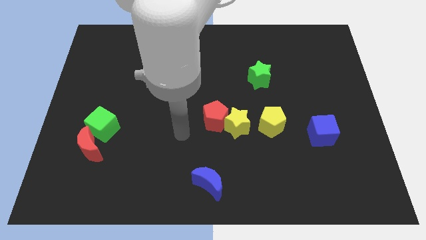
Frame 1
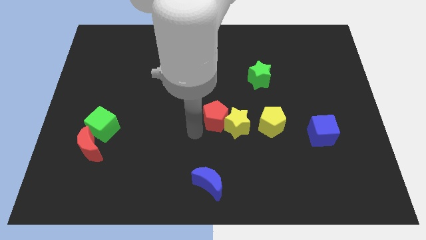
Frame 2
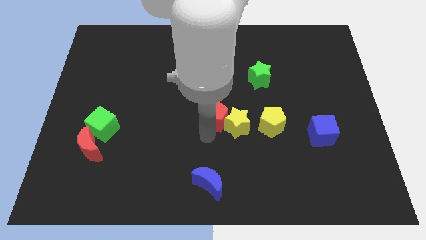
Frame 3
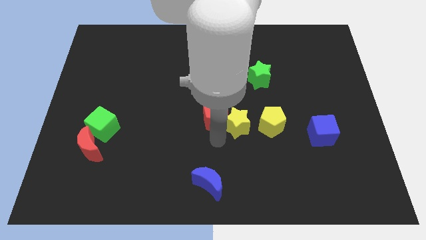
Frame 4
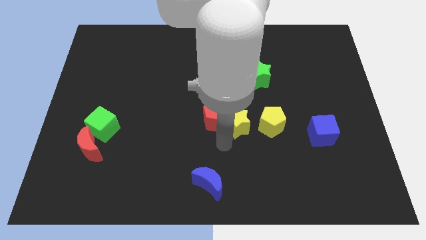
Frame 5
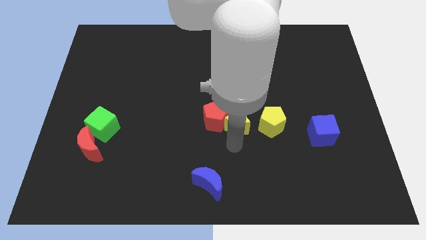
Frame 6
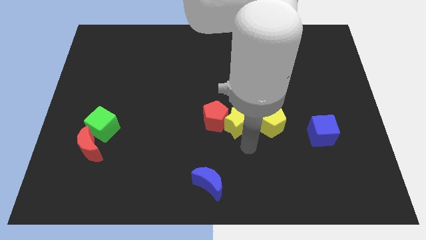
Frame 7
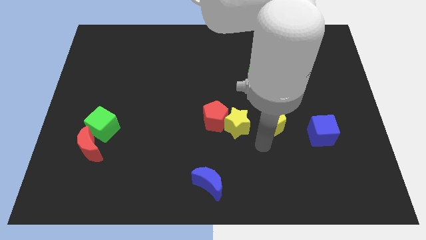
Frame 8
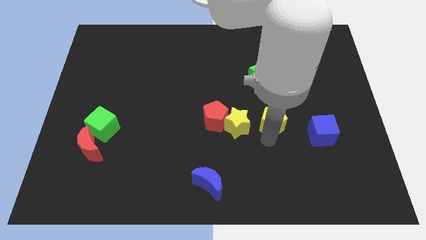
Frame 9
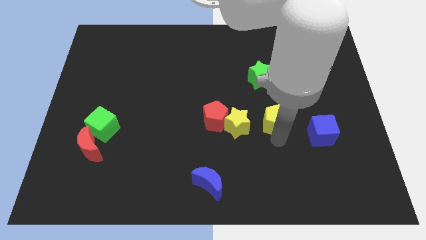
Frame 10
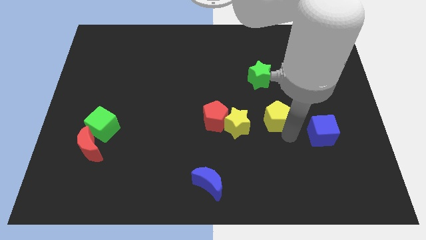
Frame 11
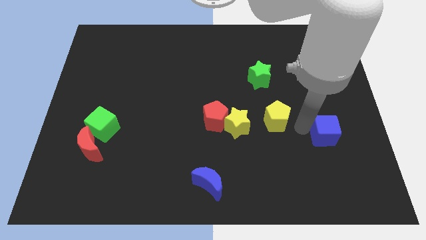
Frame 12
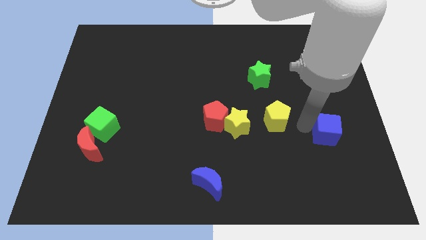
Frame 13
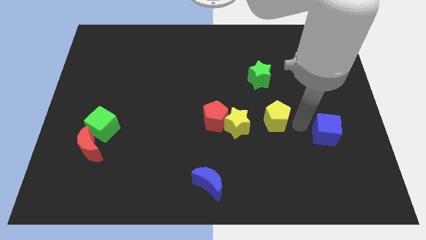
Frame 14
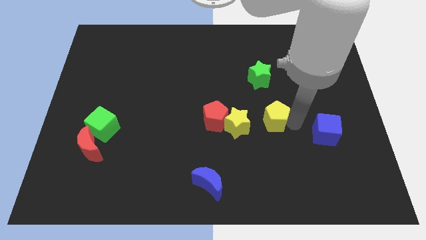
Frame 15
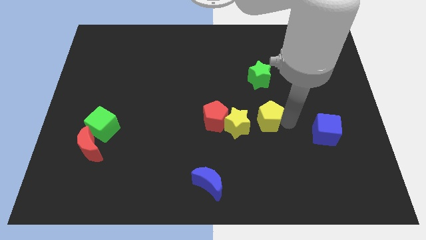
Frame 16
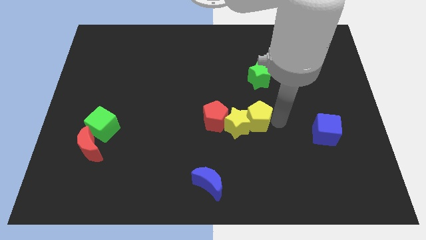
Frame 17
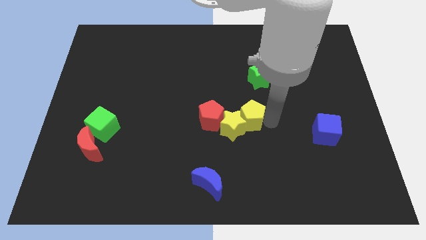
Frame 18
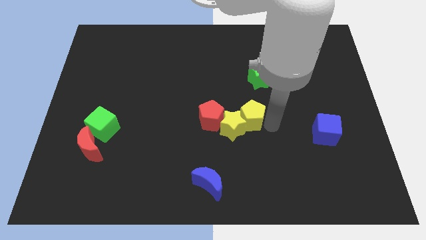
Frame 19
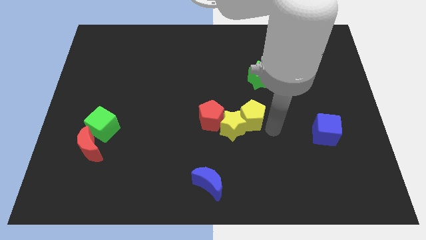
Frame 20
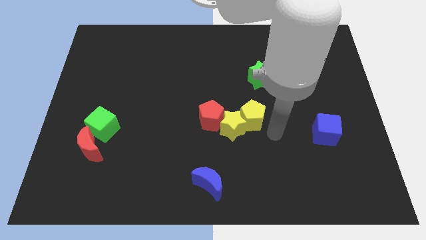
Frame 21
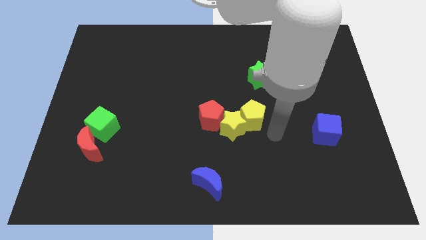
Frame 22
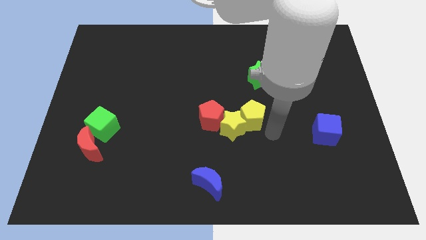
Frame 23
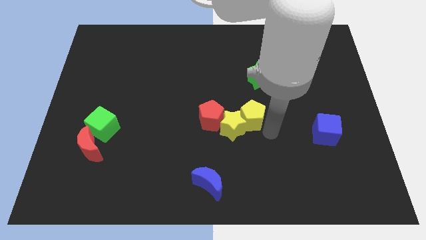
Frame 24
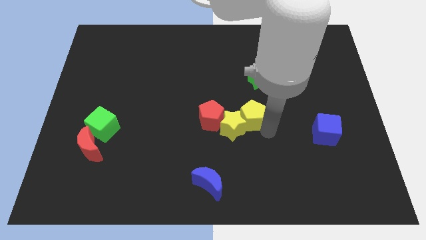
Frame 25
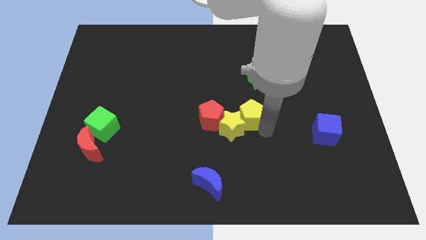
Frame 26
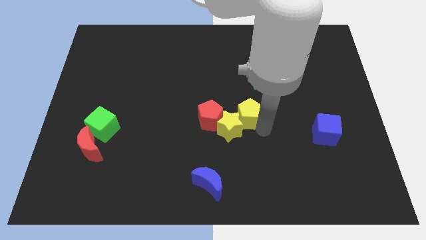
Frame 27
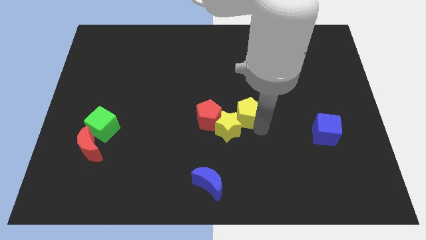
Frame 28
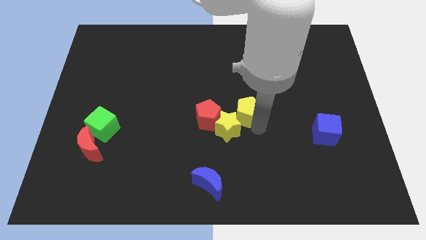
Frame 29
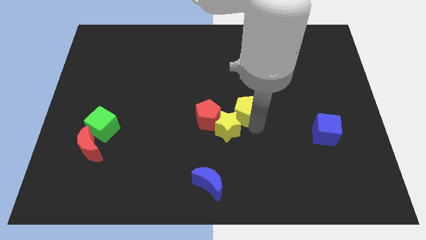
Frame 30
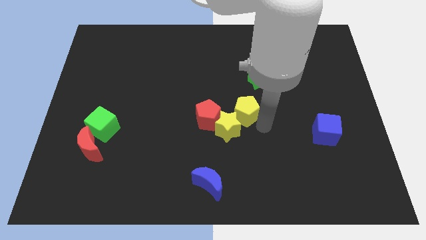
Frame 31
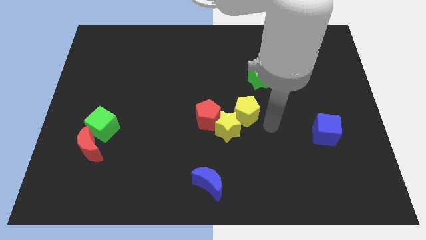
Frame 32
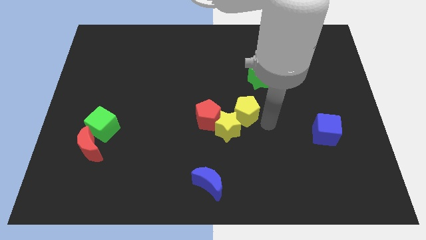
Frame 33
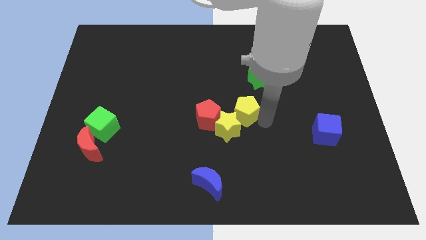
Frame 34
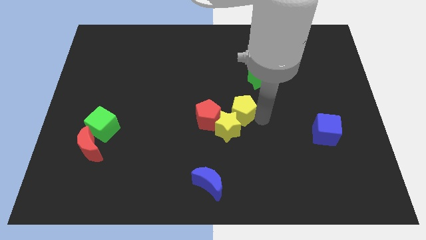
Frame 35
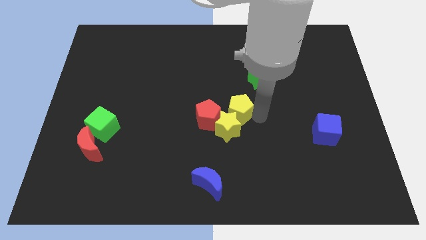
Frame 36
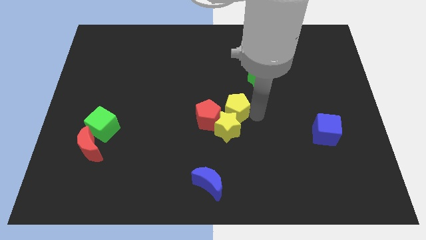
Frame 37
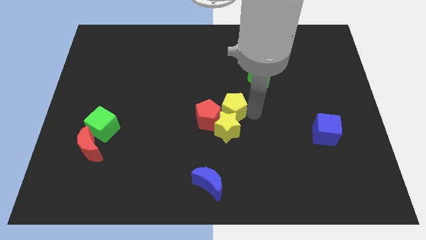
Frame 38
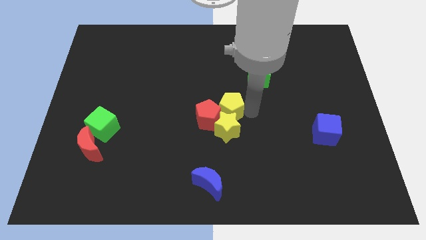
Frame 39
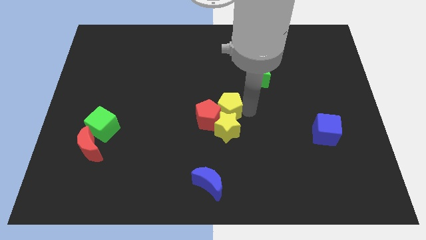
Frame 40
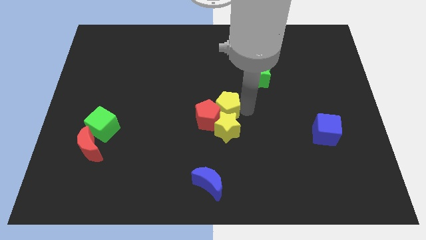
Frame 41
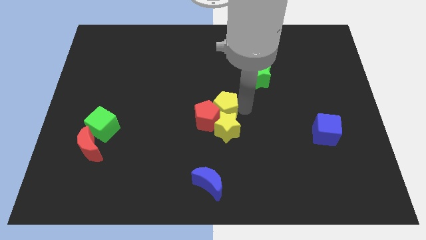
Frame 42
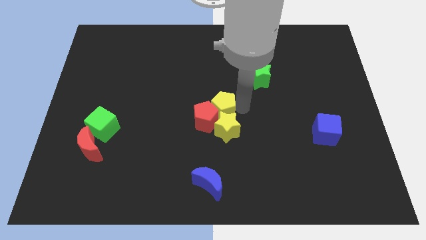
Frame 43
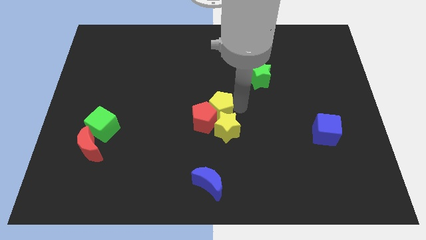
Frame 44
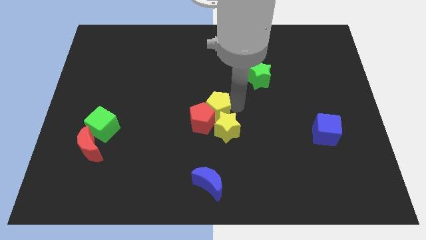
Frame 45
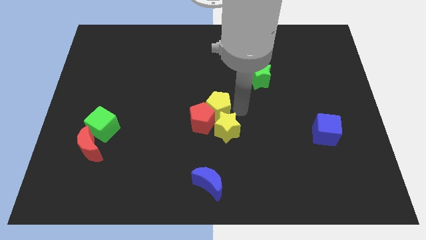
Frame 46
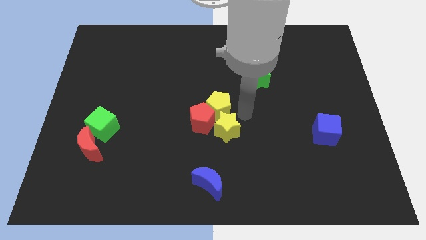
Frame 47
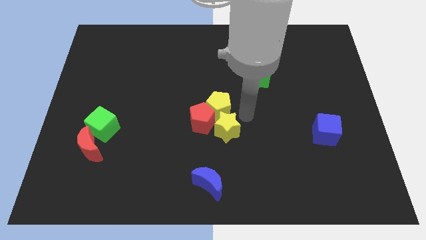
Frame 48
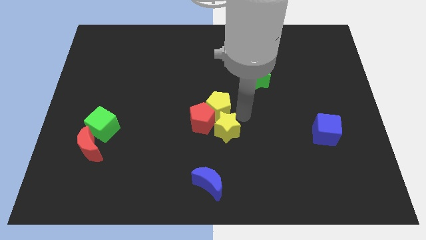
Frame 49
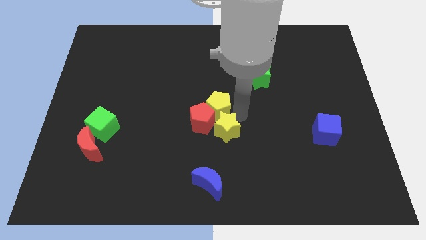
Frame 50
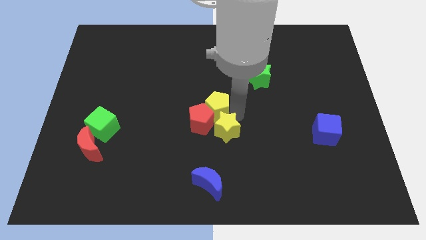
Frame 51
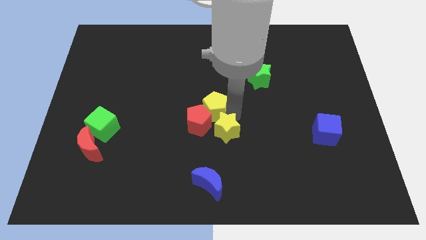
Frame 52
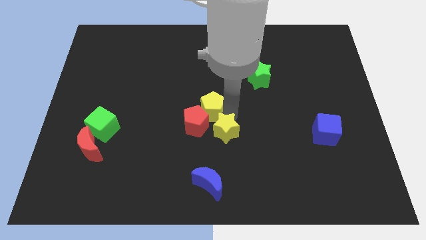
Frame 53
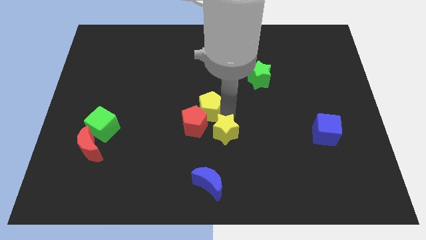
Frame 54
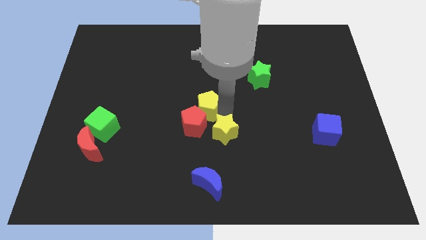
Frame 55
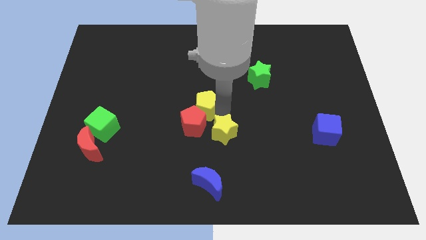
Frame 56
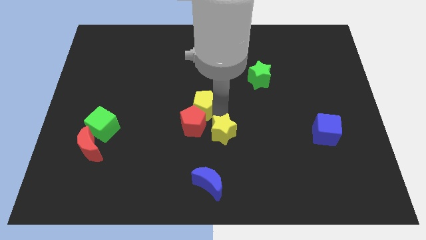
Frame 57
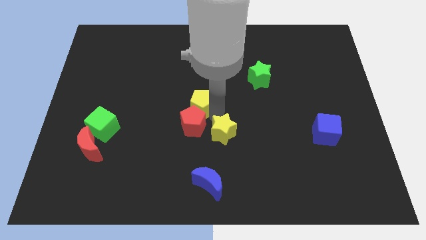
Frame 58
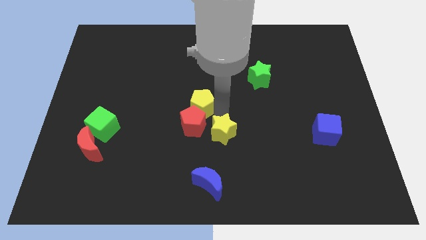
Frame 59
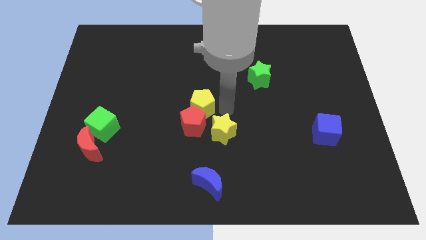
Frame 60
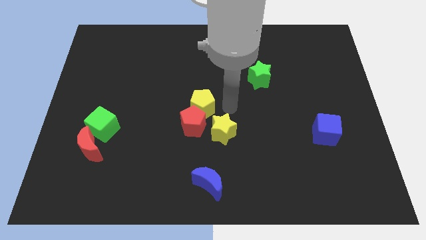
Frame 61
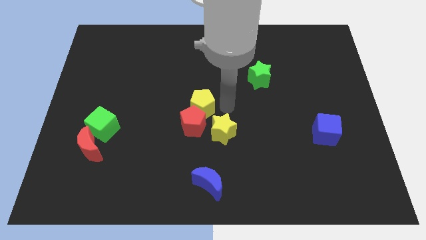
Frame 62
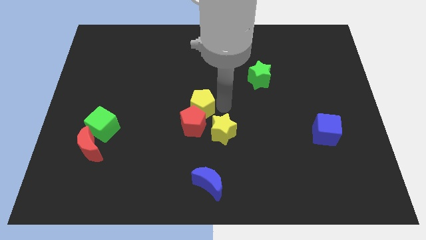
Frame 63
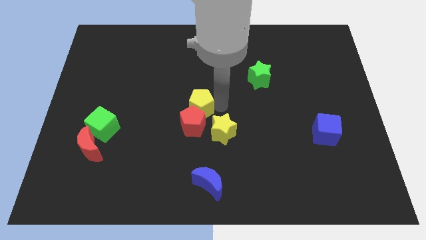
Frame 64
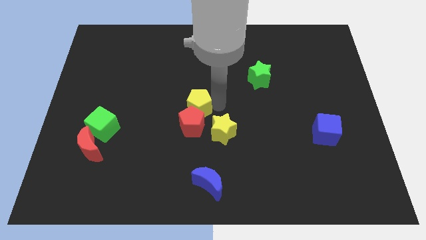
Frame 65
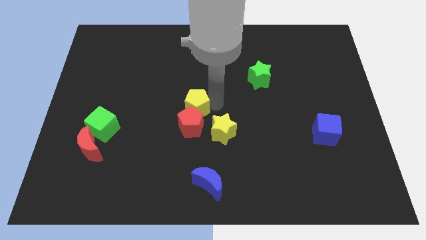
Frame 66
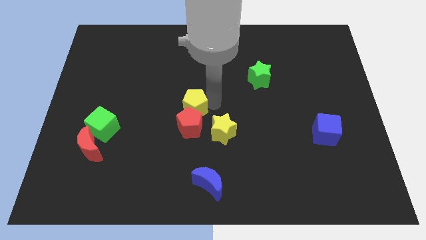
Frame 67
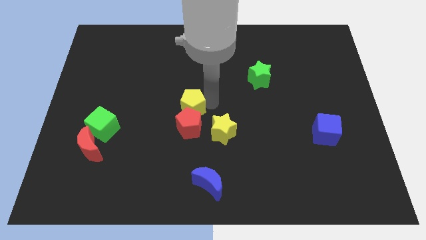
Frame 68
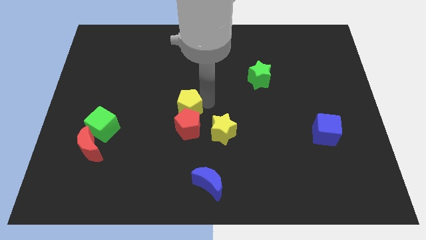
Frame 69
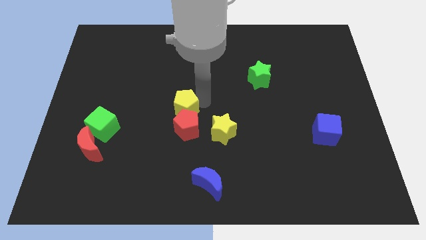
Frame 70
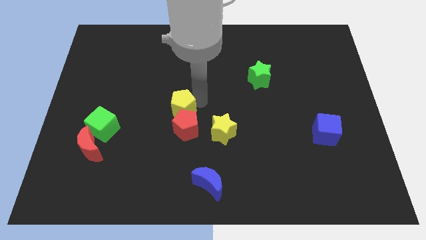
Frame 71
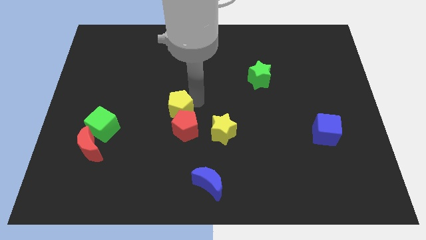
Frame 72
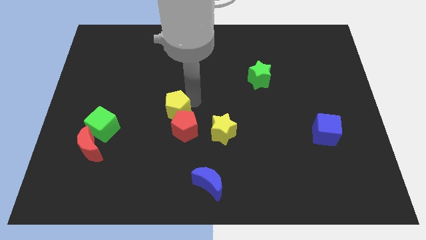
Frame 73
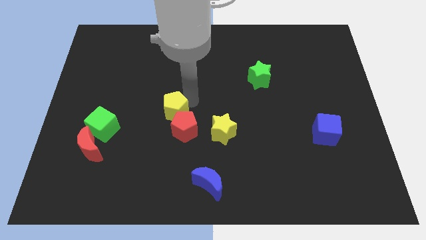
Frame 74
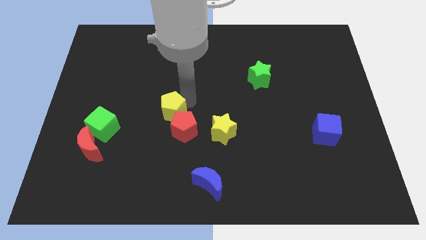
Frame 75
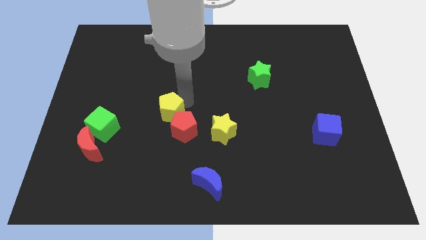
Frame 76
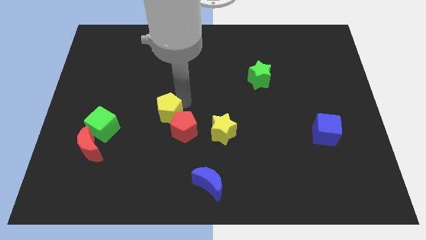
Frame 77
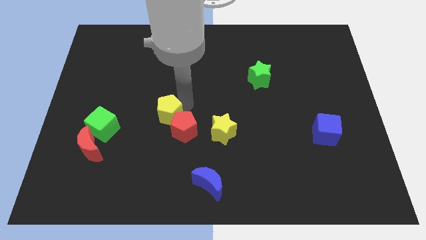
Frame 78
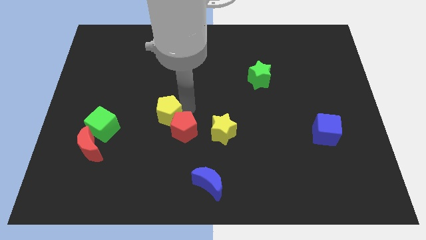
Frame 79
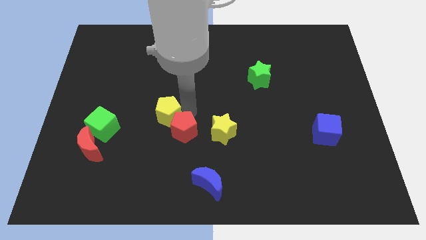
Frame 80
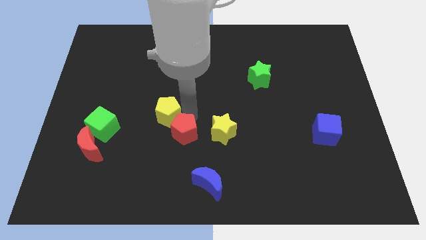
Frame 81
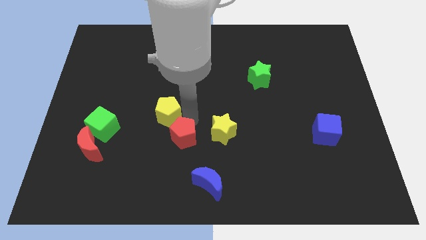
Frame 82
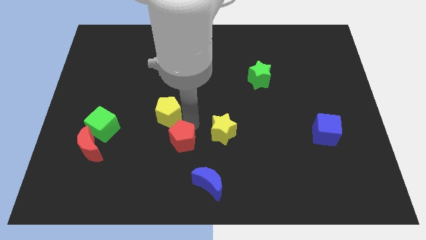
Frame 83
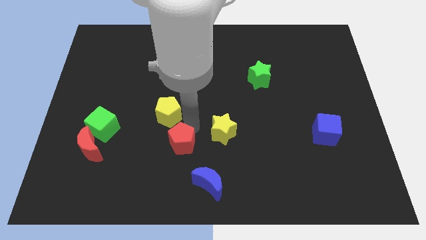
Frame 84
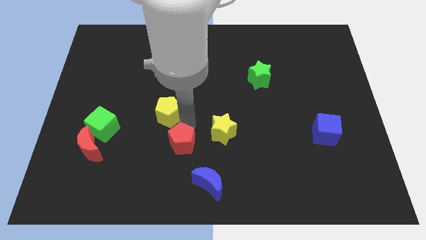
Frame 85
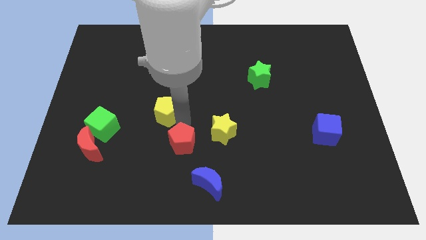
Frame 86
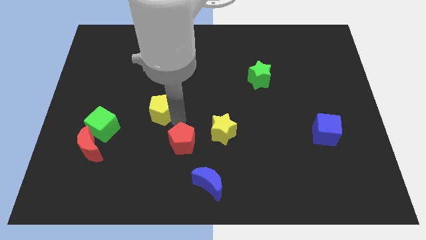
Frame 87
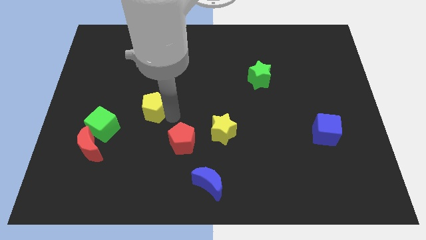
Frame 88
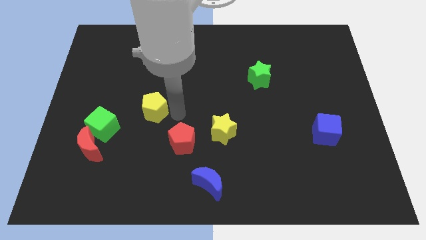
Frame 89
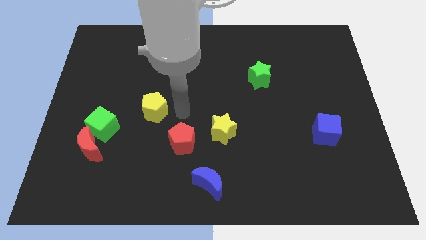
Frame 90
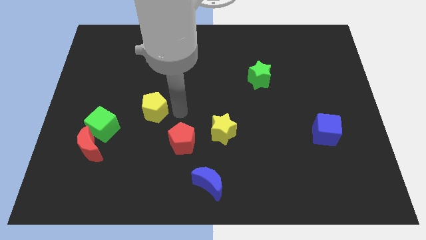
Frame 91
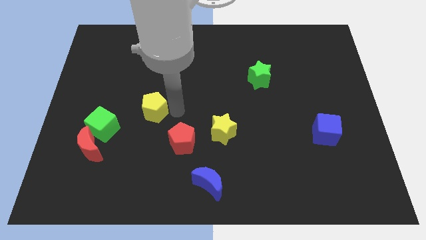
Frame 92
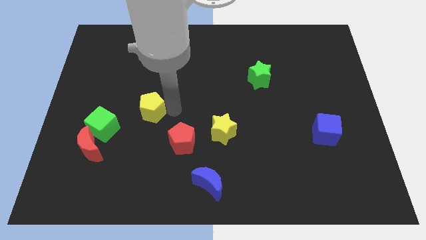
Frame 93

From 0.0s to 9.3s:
put the yellow pentagon diagonally up and to the right of the green cube
